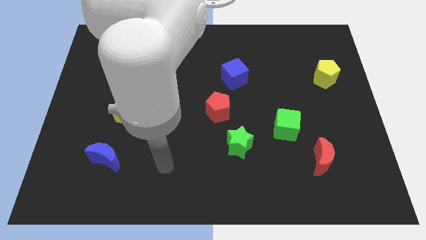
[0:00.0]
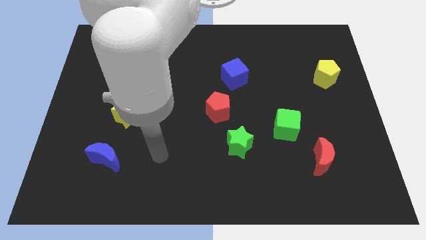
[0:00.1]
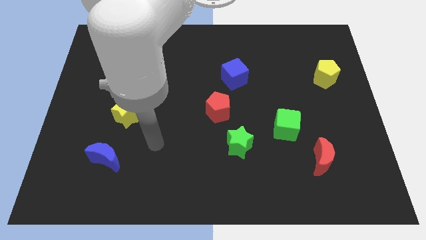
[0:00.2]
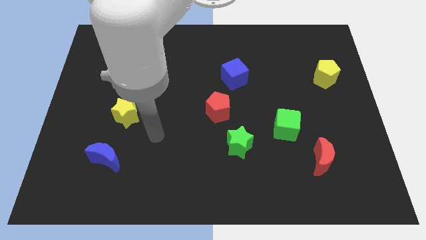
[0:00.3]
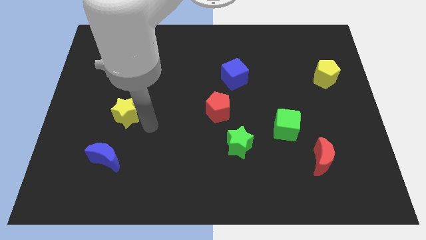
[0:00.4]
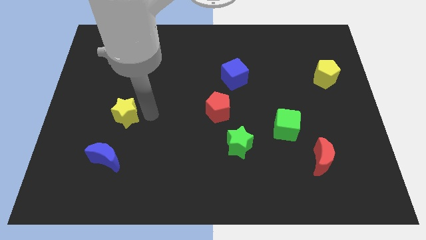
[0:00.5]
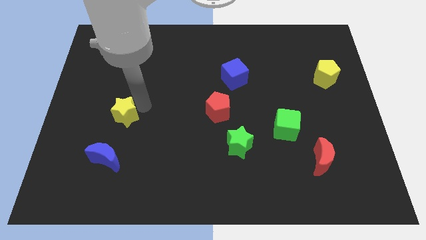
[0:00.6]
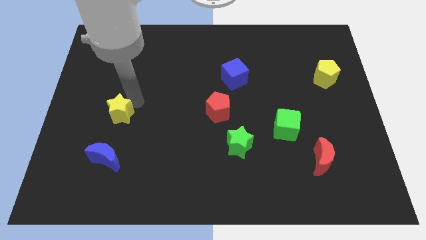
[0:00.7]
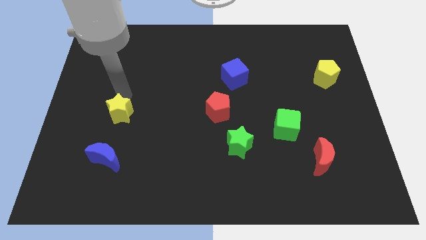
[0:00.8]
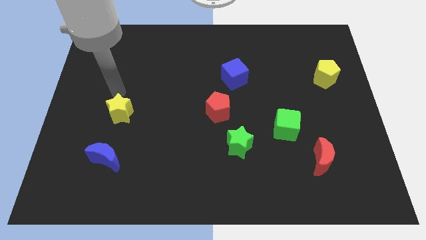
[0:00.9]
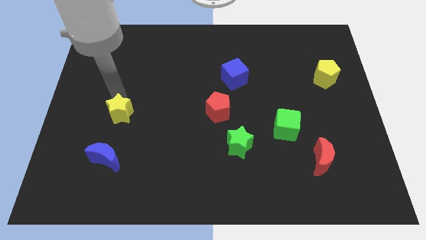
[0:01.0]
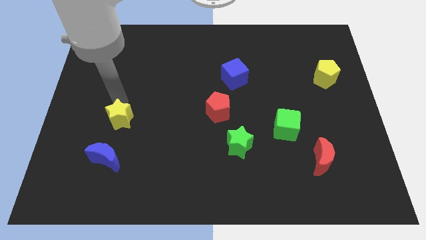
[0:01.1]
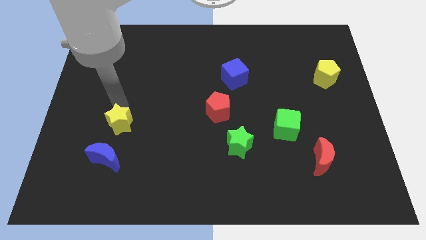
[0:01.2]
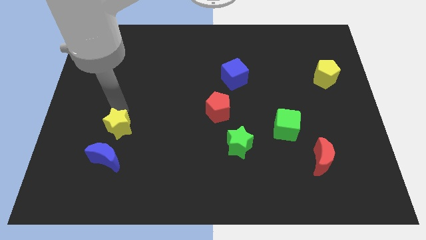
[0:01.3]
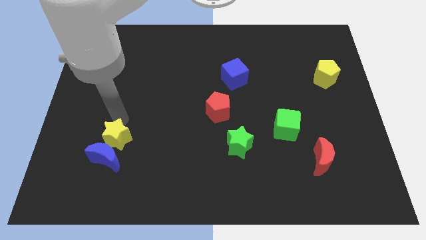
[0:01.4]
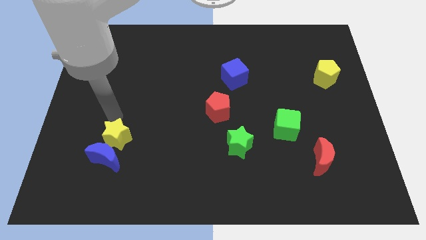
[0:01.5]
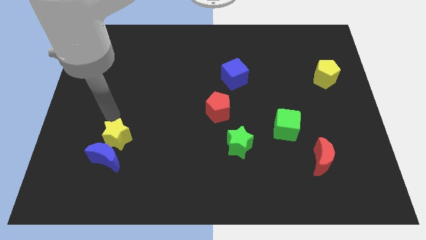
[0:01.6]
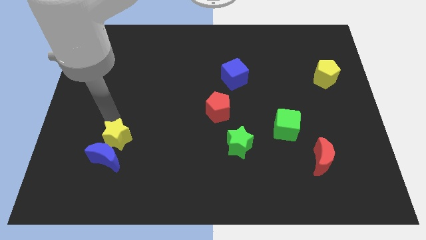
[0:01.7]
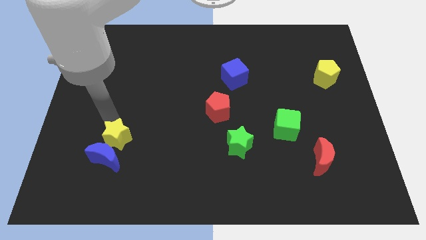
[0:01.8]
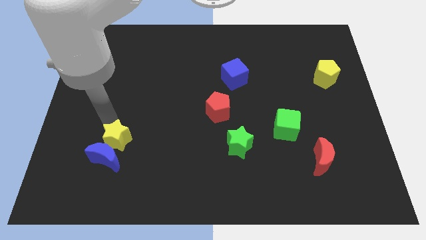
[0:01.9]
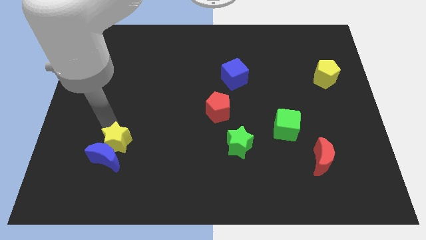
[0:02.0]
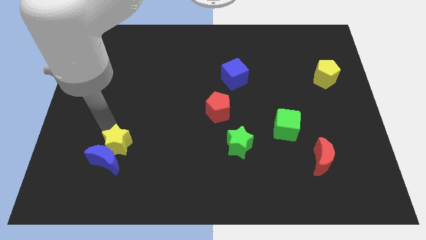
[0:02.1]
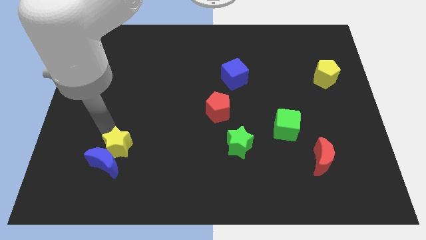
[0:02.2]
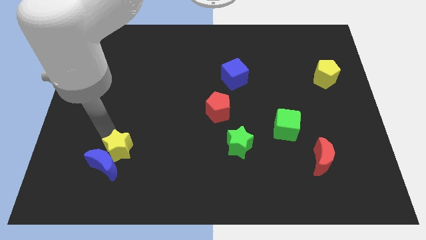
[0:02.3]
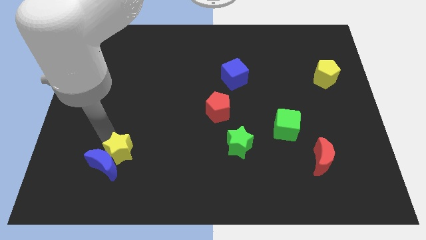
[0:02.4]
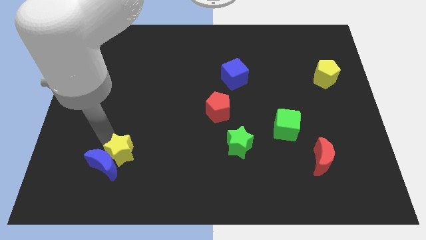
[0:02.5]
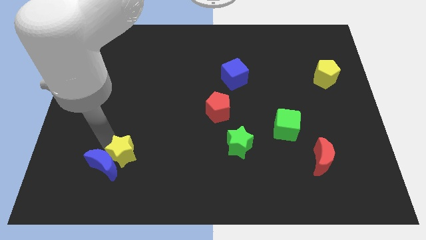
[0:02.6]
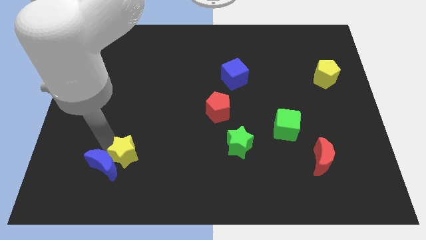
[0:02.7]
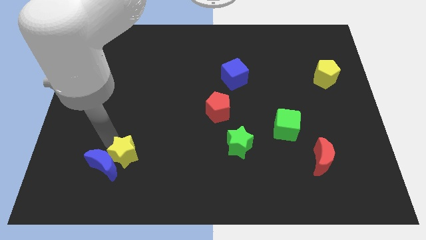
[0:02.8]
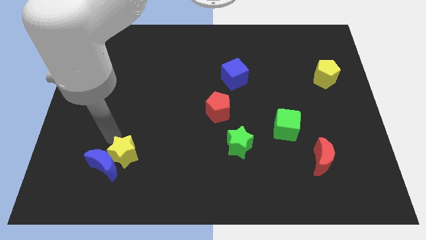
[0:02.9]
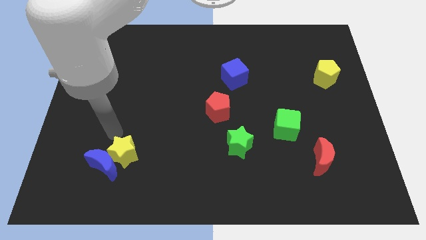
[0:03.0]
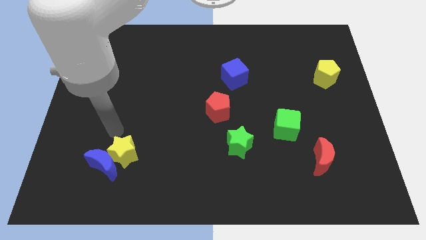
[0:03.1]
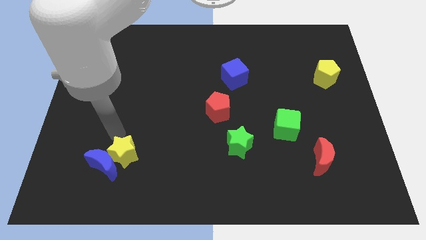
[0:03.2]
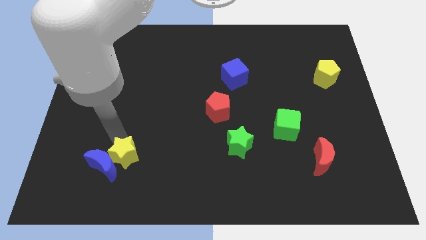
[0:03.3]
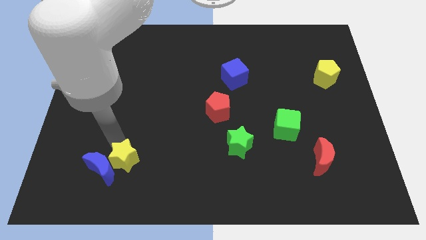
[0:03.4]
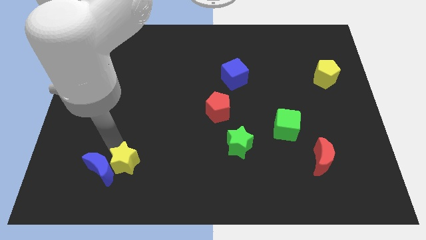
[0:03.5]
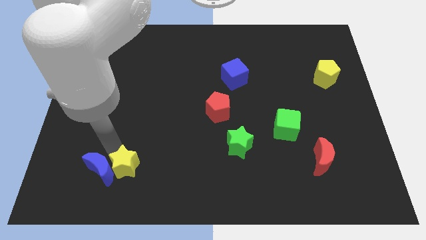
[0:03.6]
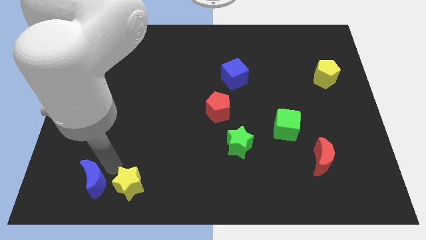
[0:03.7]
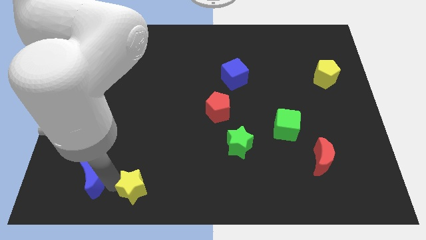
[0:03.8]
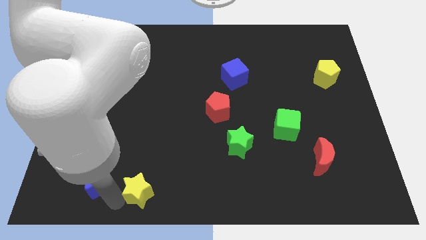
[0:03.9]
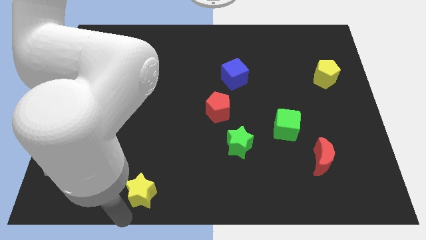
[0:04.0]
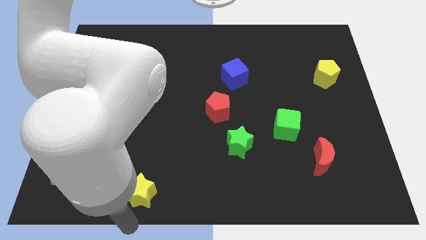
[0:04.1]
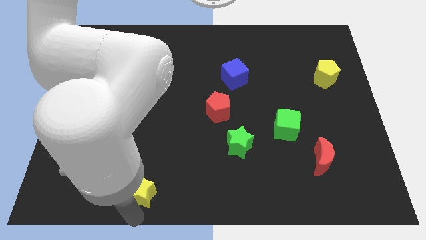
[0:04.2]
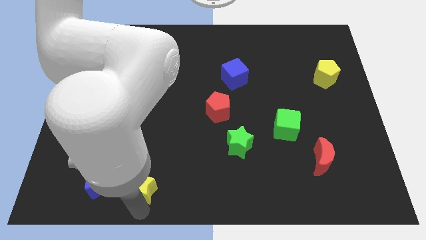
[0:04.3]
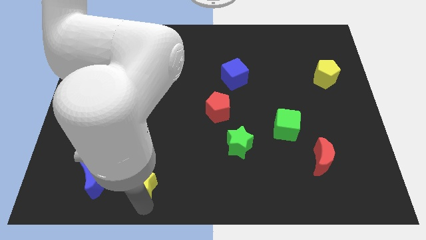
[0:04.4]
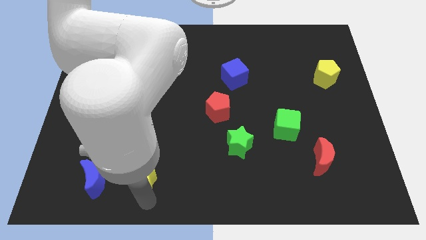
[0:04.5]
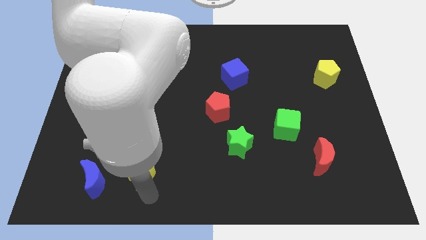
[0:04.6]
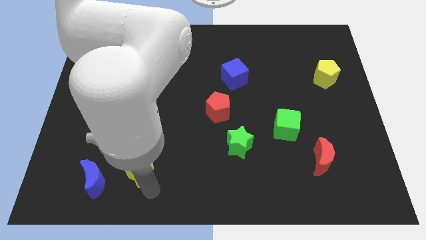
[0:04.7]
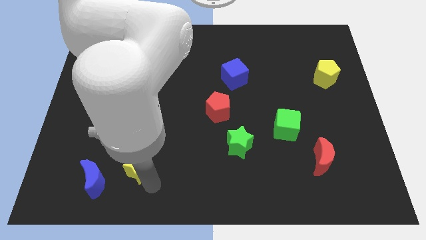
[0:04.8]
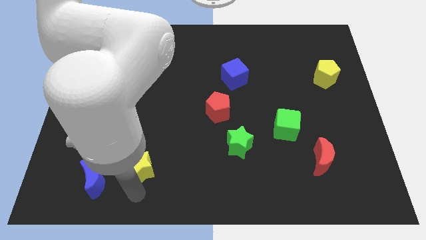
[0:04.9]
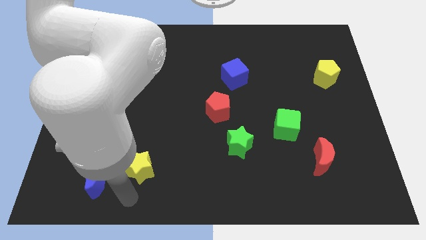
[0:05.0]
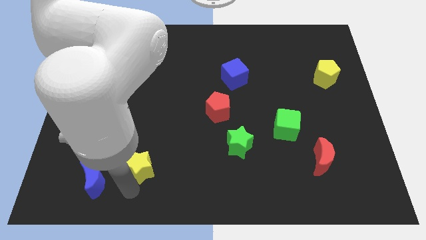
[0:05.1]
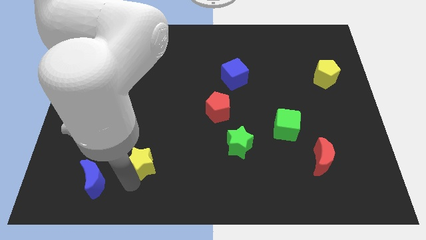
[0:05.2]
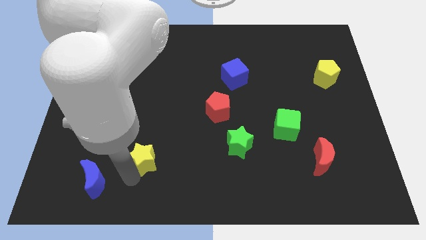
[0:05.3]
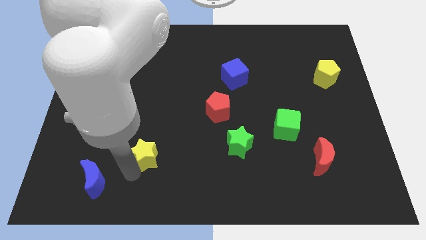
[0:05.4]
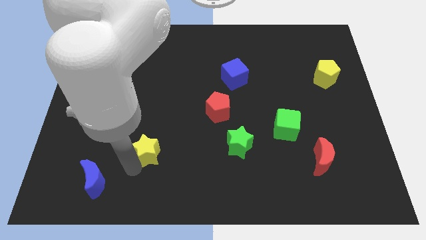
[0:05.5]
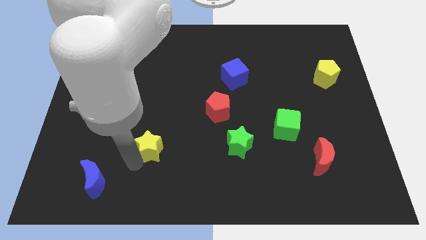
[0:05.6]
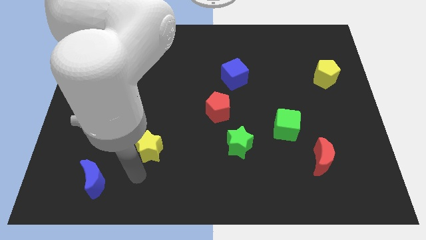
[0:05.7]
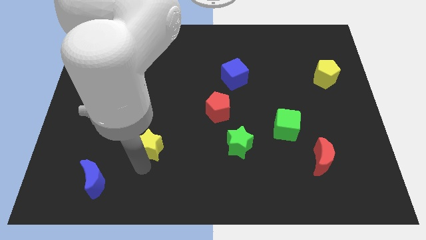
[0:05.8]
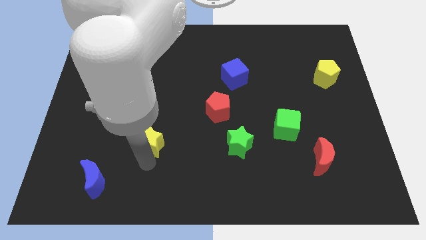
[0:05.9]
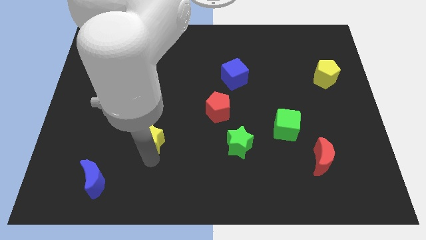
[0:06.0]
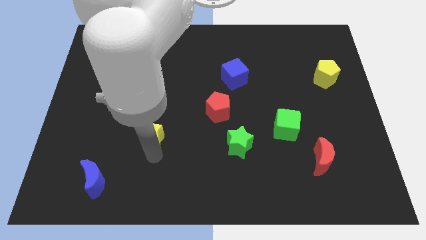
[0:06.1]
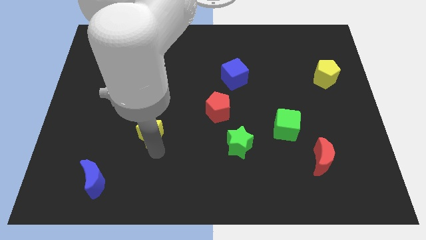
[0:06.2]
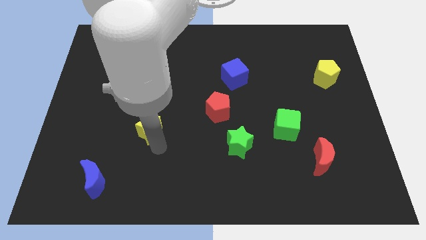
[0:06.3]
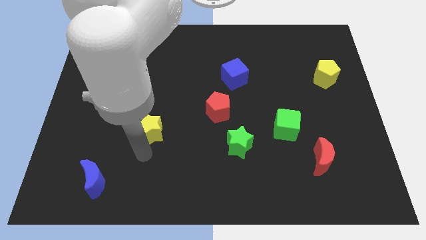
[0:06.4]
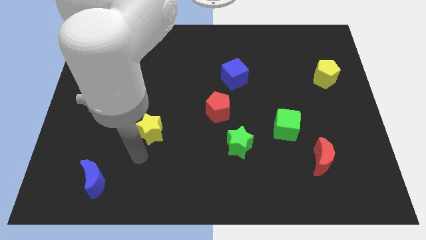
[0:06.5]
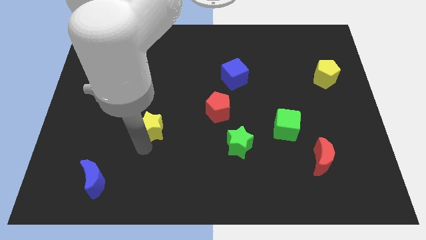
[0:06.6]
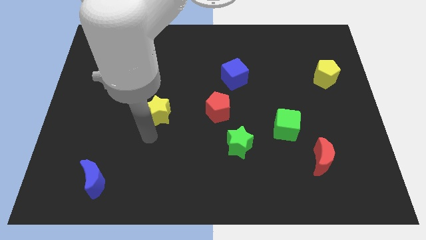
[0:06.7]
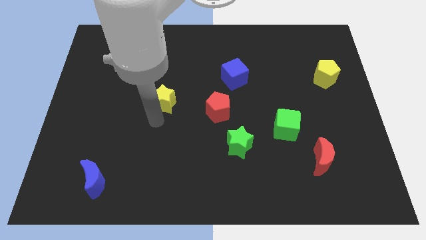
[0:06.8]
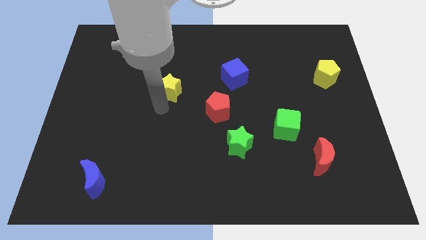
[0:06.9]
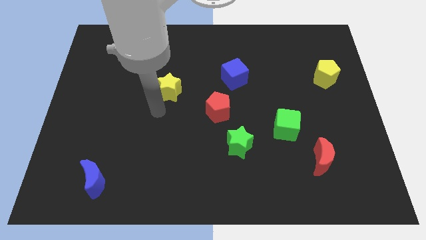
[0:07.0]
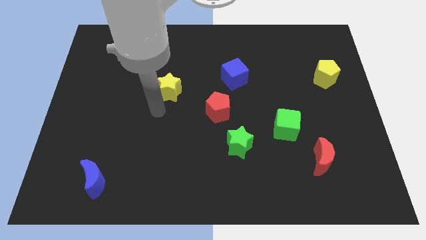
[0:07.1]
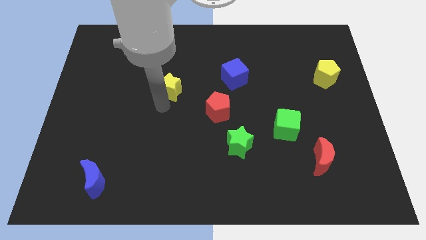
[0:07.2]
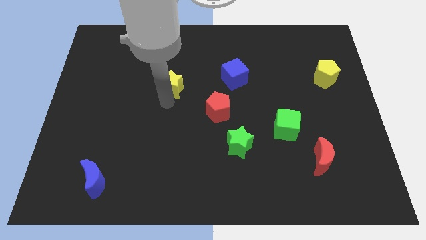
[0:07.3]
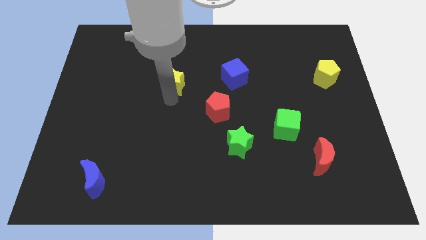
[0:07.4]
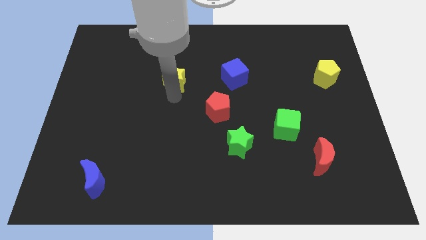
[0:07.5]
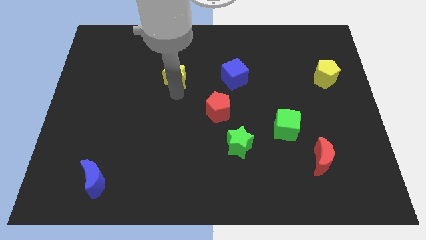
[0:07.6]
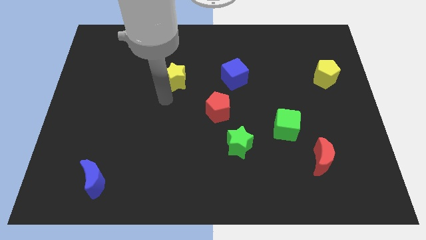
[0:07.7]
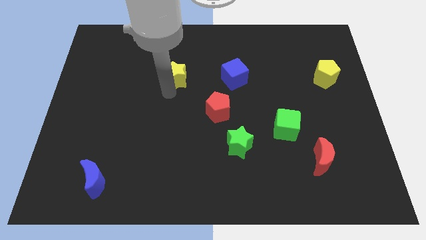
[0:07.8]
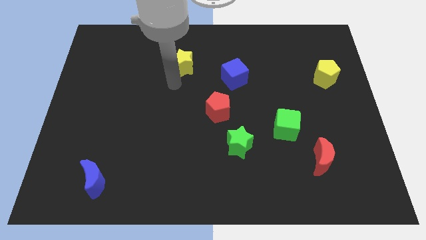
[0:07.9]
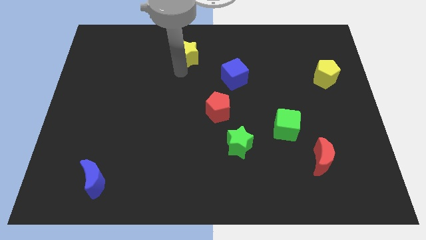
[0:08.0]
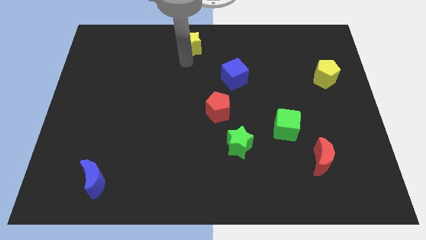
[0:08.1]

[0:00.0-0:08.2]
move the yellow star to the top
